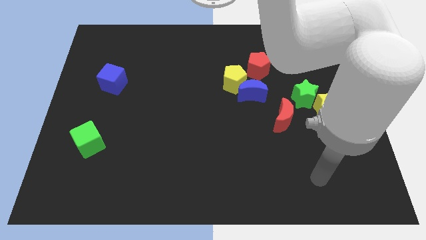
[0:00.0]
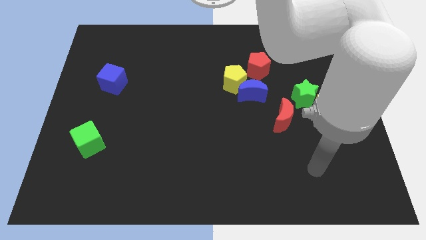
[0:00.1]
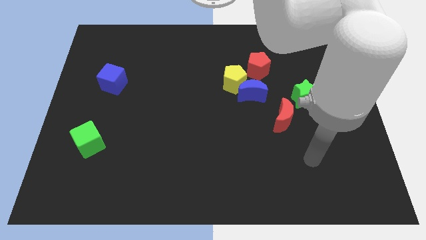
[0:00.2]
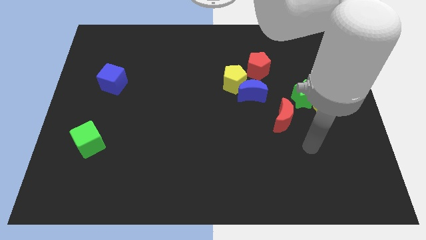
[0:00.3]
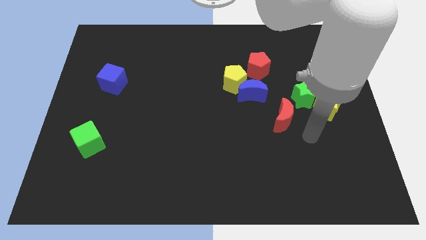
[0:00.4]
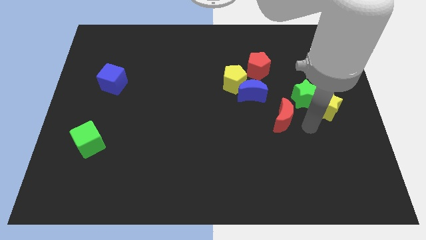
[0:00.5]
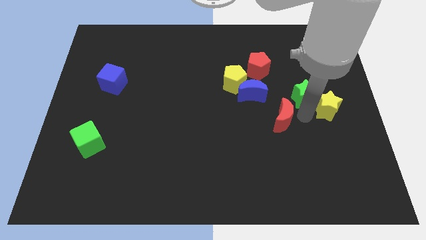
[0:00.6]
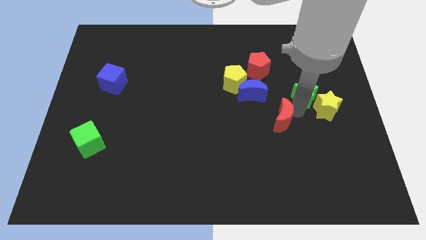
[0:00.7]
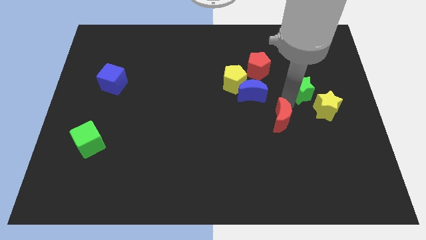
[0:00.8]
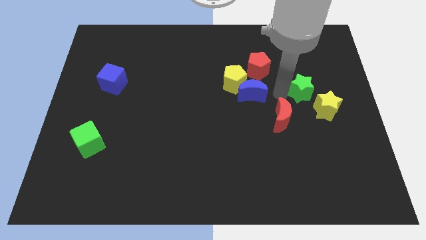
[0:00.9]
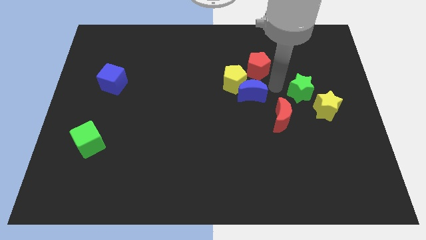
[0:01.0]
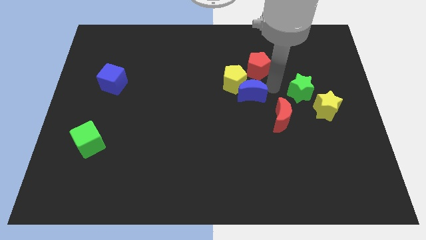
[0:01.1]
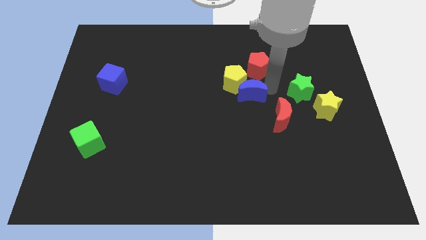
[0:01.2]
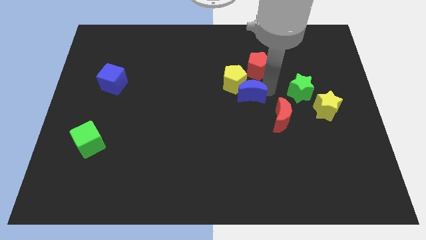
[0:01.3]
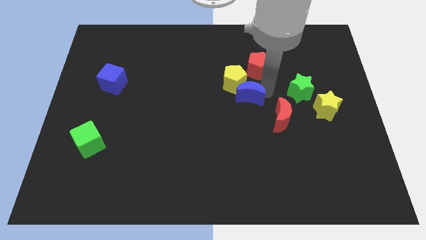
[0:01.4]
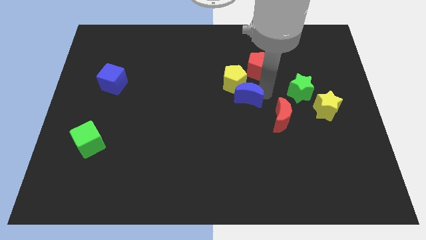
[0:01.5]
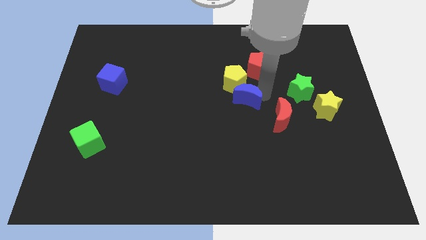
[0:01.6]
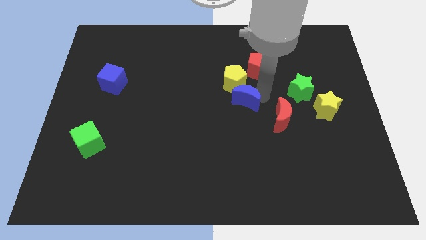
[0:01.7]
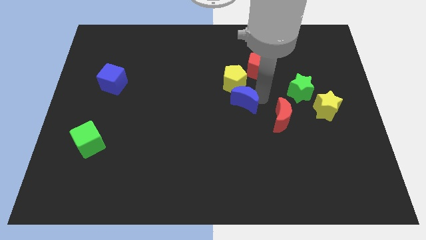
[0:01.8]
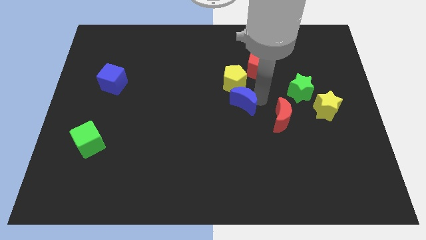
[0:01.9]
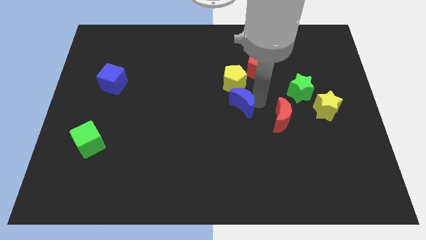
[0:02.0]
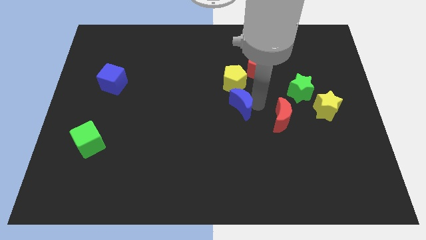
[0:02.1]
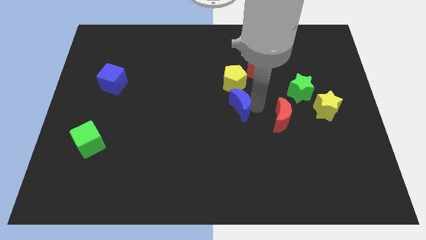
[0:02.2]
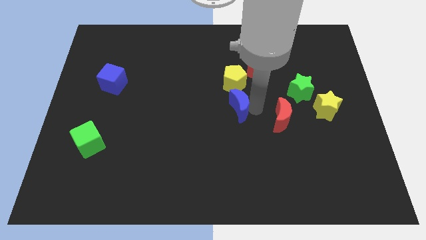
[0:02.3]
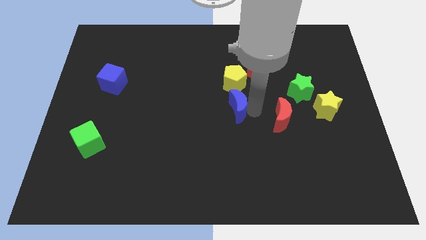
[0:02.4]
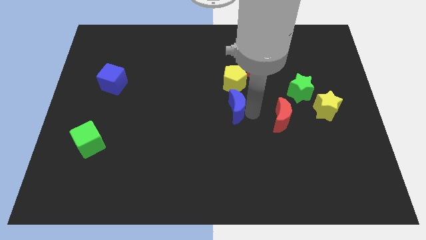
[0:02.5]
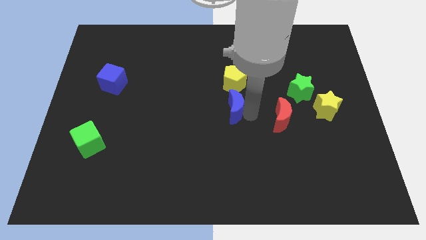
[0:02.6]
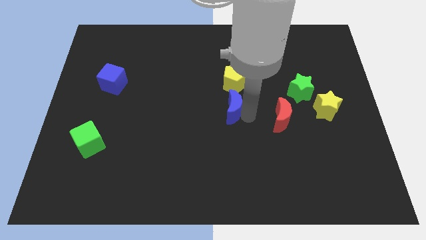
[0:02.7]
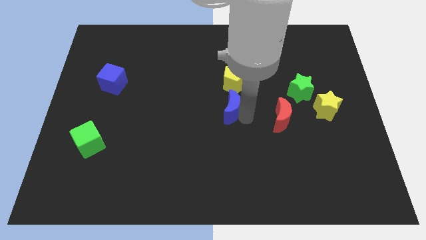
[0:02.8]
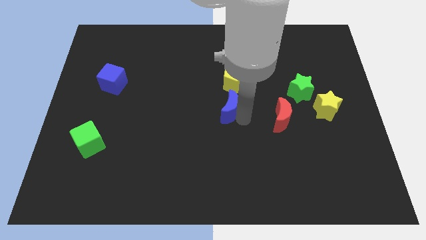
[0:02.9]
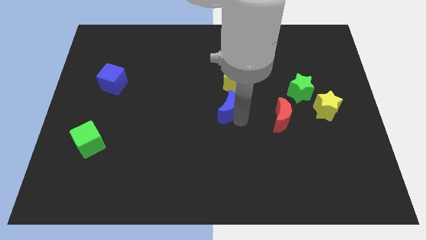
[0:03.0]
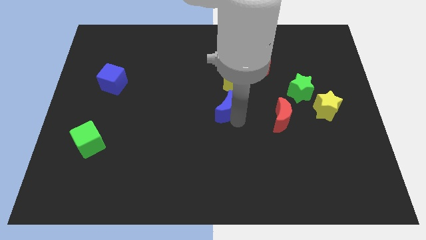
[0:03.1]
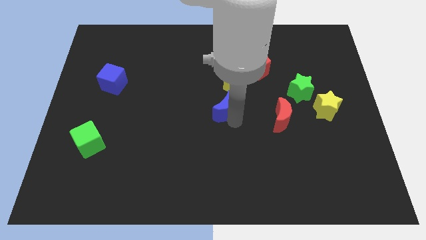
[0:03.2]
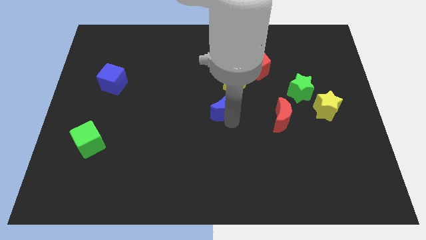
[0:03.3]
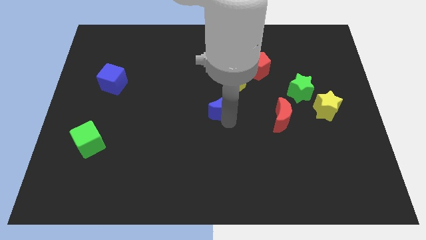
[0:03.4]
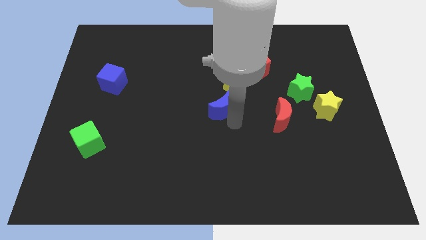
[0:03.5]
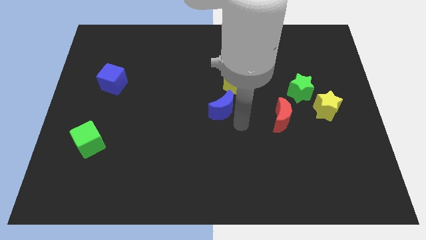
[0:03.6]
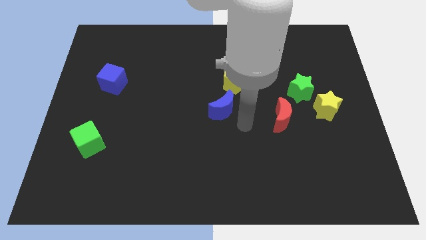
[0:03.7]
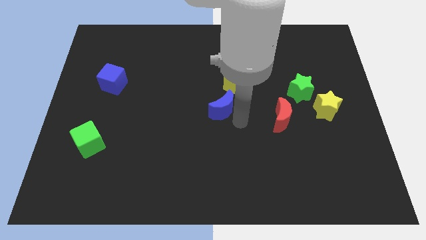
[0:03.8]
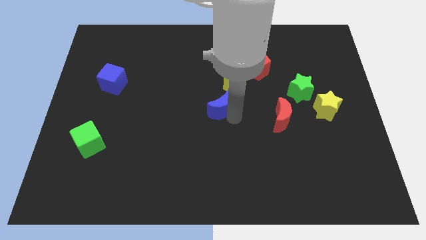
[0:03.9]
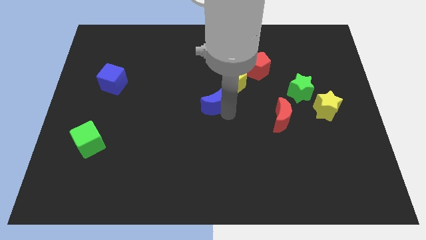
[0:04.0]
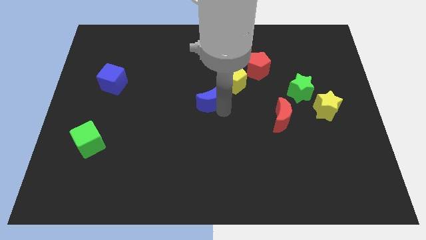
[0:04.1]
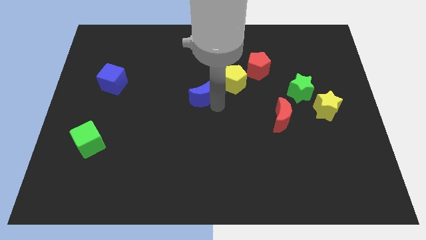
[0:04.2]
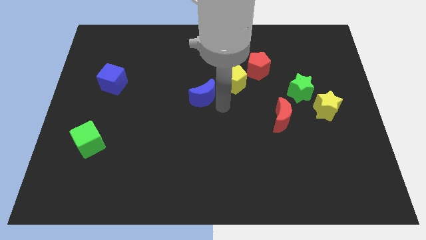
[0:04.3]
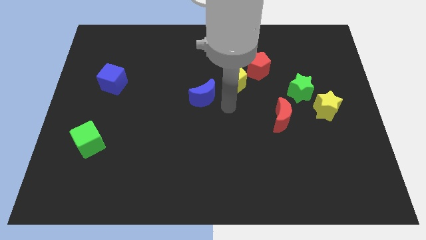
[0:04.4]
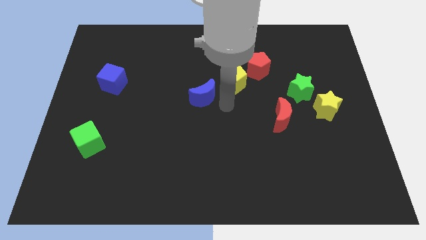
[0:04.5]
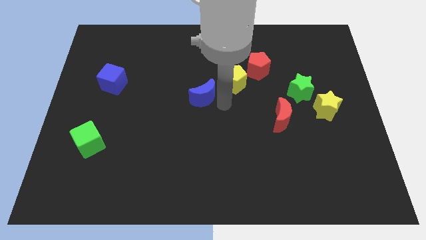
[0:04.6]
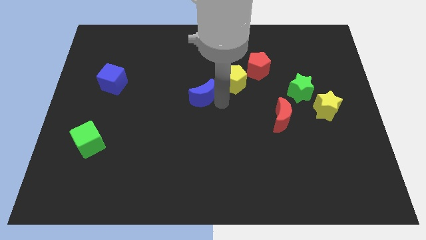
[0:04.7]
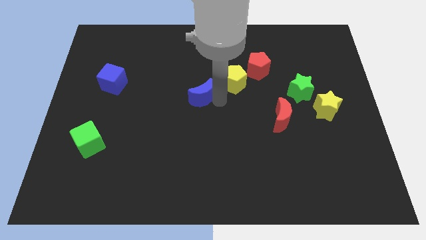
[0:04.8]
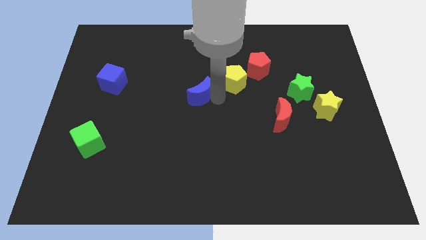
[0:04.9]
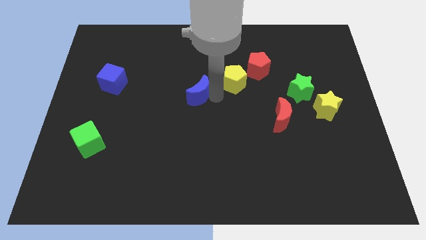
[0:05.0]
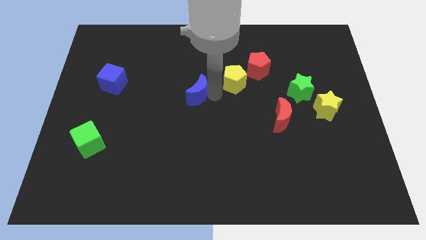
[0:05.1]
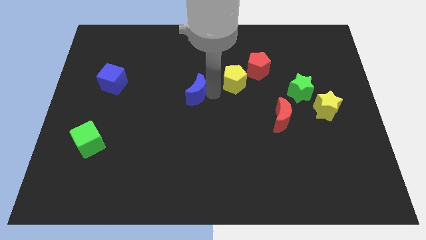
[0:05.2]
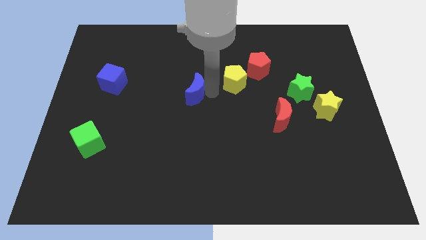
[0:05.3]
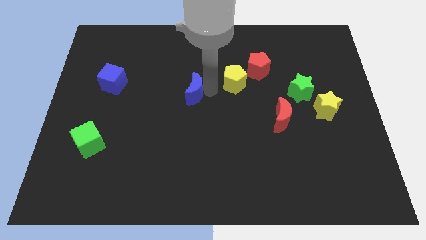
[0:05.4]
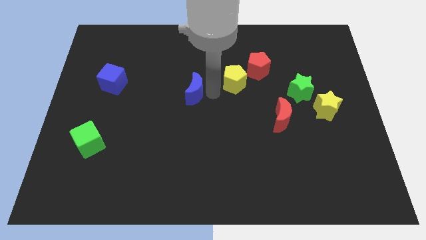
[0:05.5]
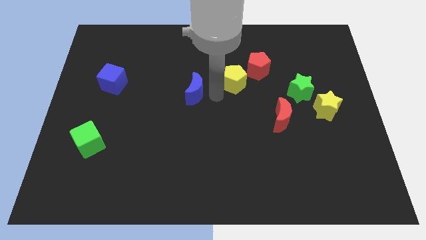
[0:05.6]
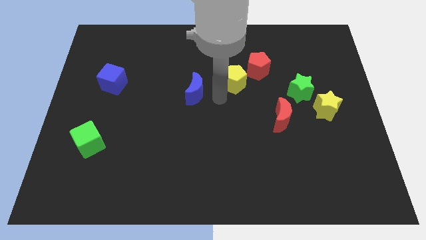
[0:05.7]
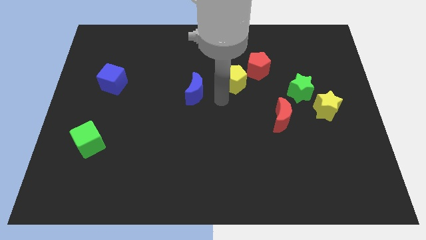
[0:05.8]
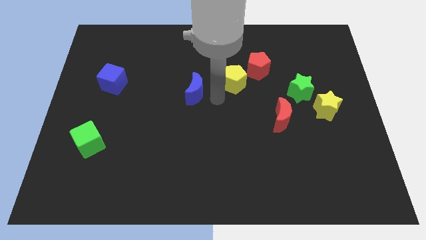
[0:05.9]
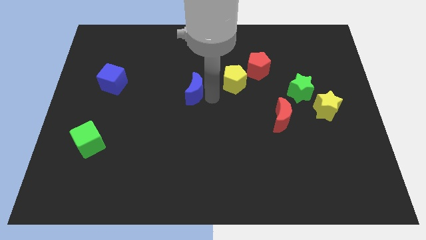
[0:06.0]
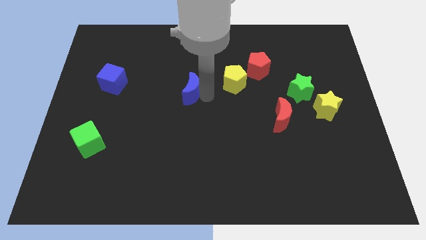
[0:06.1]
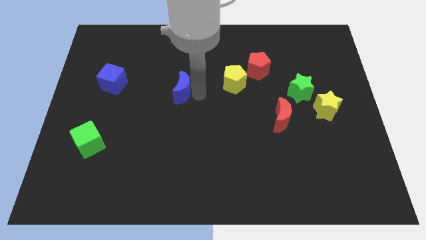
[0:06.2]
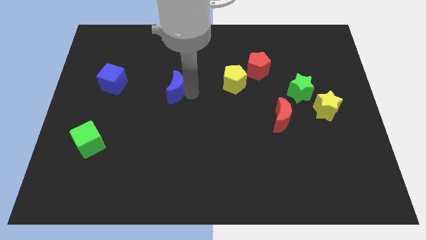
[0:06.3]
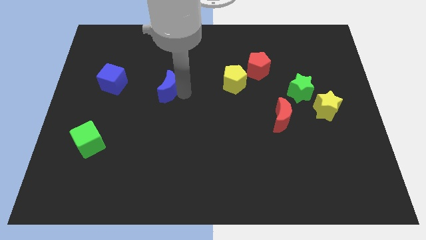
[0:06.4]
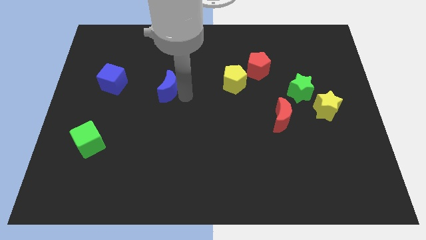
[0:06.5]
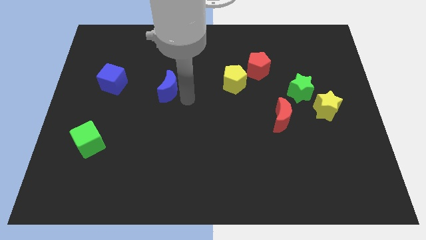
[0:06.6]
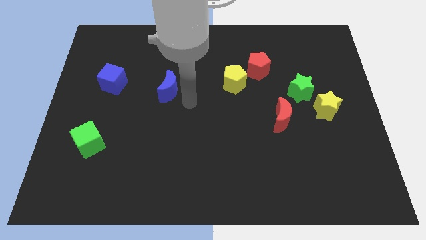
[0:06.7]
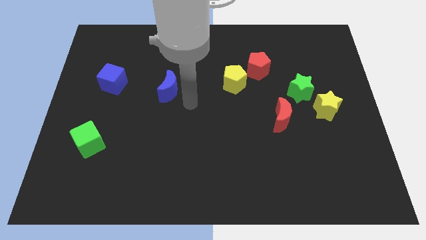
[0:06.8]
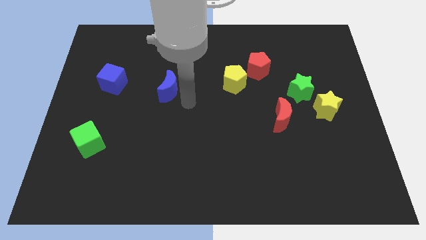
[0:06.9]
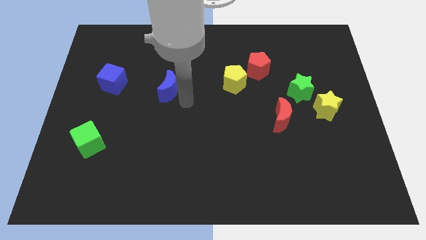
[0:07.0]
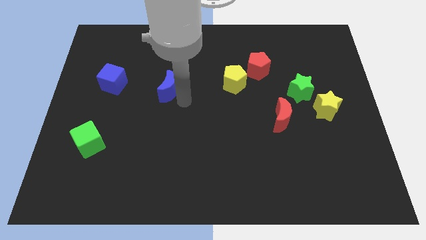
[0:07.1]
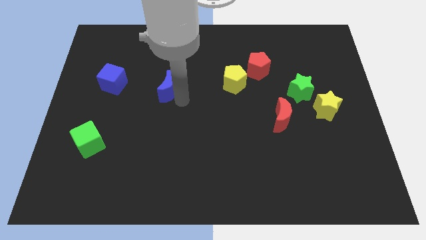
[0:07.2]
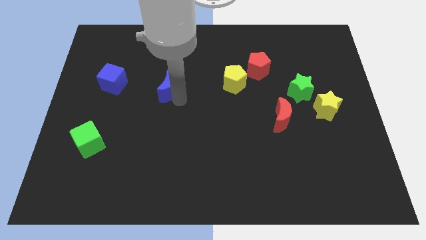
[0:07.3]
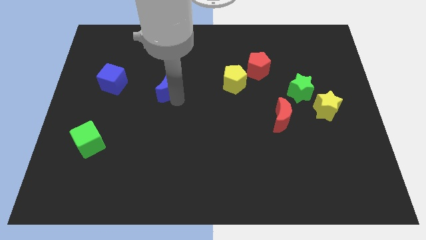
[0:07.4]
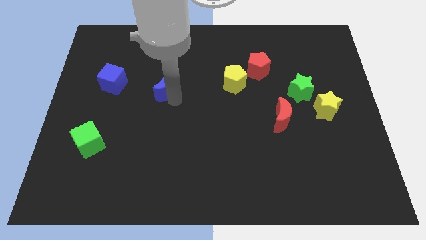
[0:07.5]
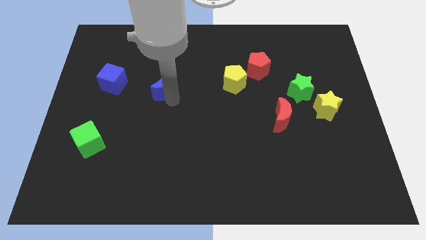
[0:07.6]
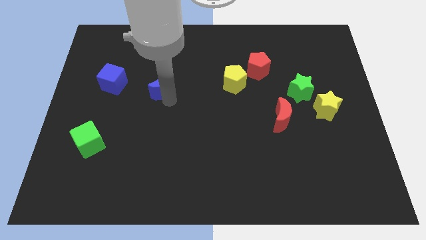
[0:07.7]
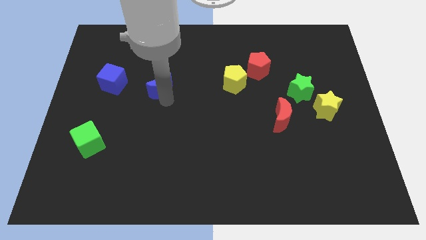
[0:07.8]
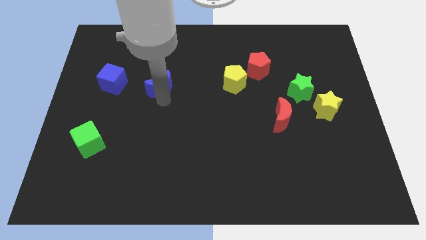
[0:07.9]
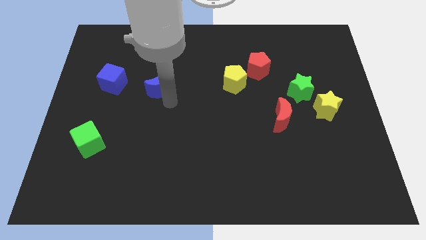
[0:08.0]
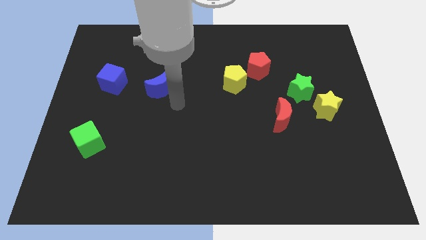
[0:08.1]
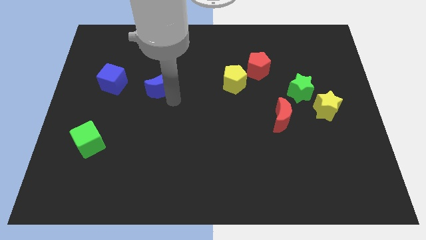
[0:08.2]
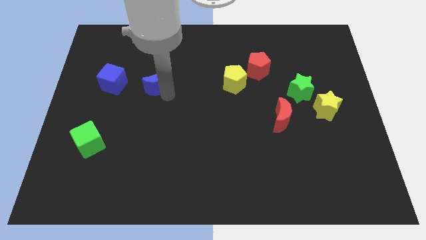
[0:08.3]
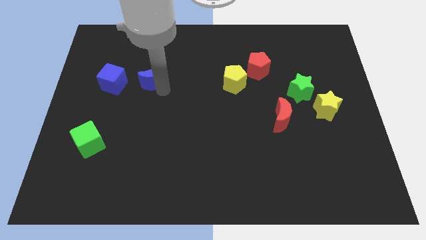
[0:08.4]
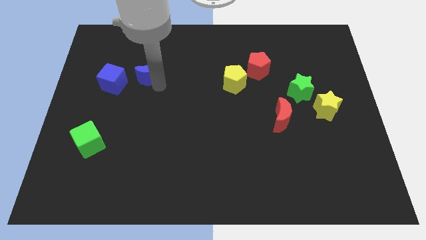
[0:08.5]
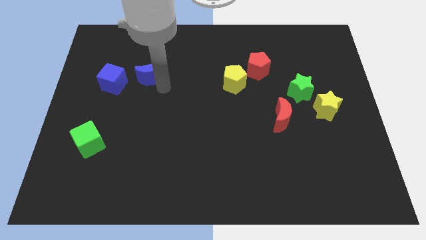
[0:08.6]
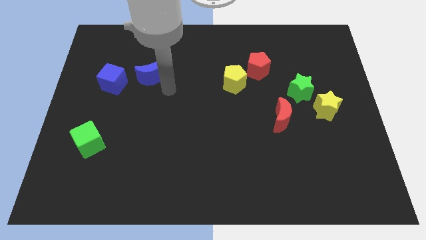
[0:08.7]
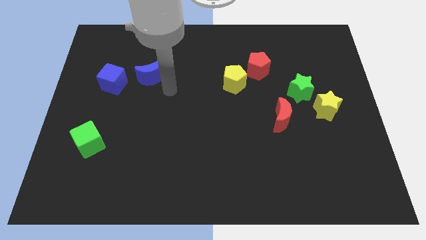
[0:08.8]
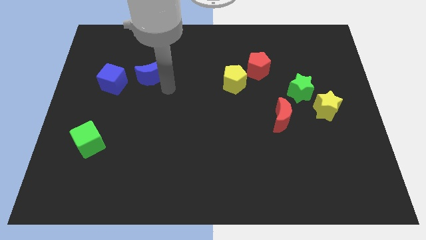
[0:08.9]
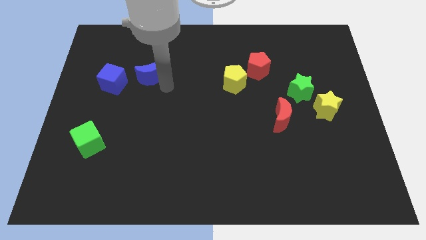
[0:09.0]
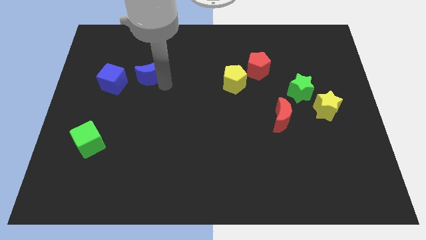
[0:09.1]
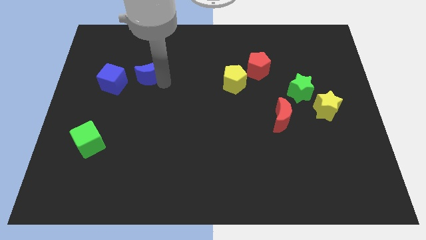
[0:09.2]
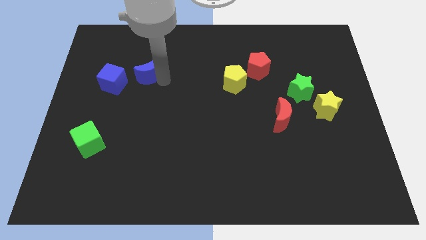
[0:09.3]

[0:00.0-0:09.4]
move the blue moon to the top right side of the blue cube
